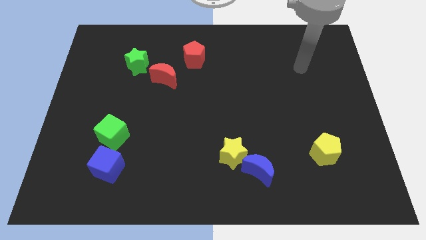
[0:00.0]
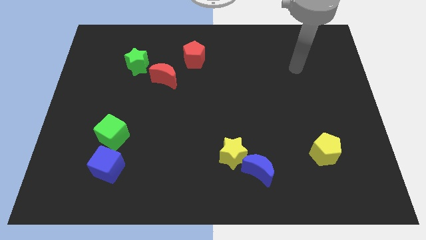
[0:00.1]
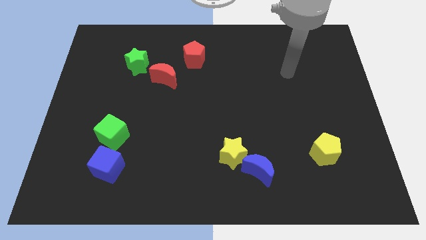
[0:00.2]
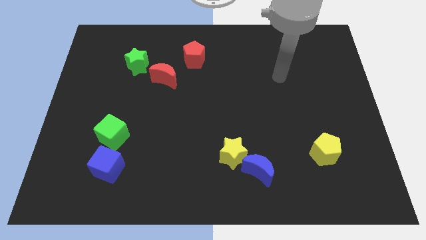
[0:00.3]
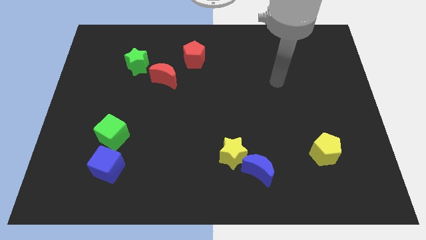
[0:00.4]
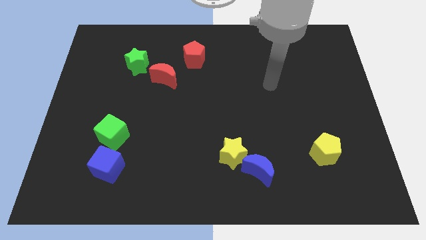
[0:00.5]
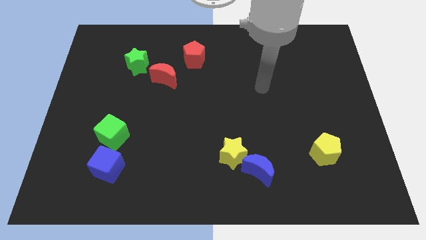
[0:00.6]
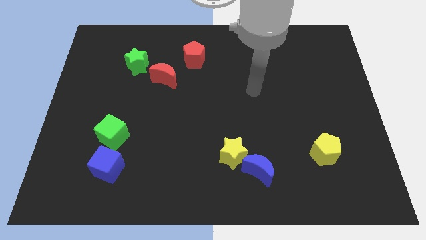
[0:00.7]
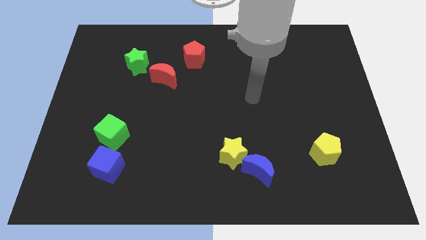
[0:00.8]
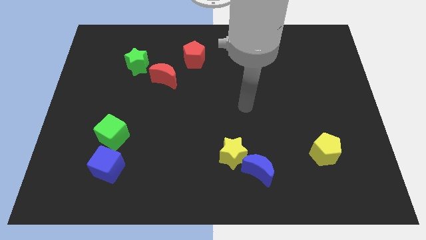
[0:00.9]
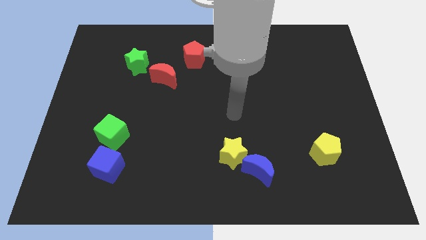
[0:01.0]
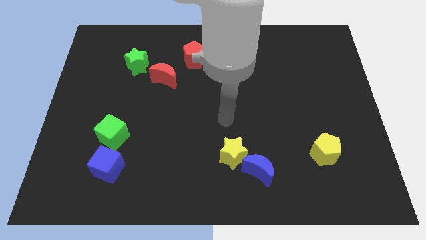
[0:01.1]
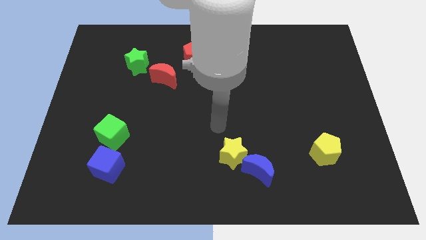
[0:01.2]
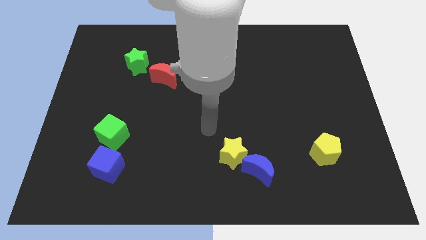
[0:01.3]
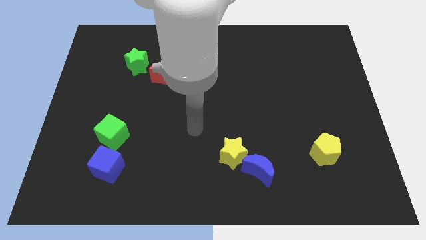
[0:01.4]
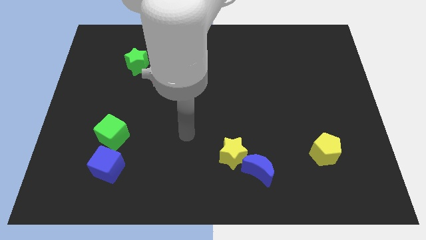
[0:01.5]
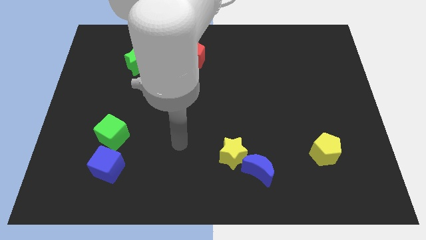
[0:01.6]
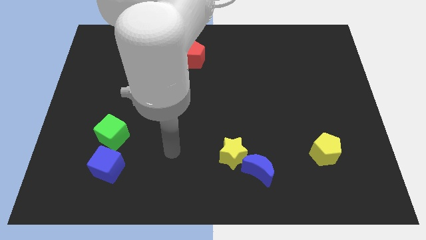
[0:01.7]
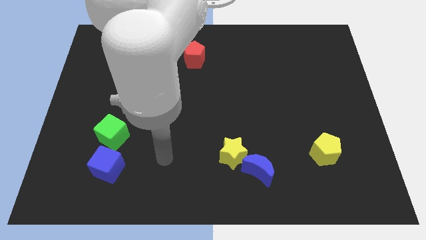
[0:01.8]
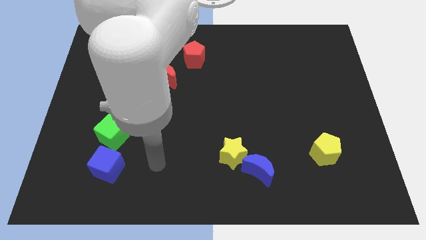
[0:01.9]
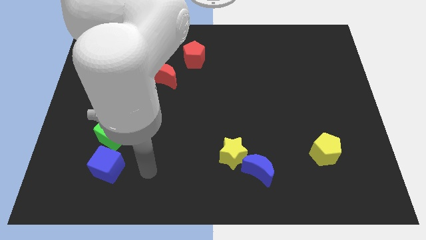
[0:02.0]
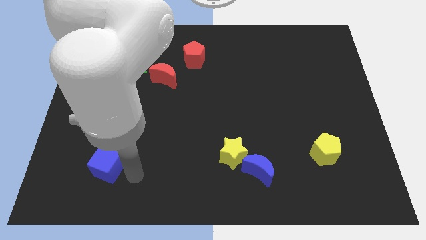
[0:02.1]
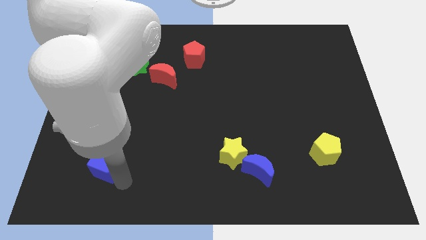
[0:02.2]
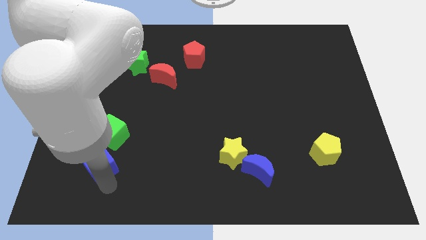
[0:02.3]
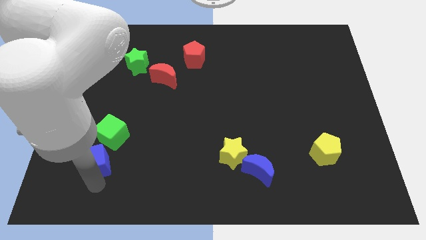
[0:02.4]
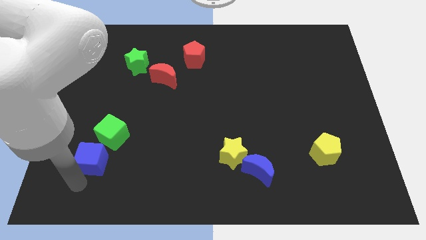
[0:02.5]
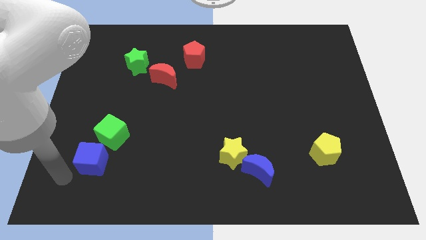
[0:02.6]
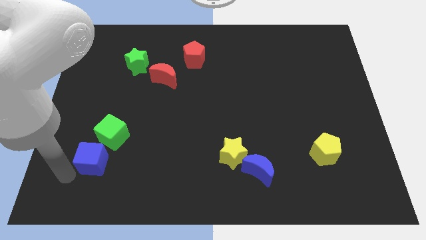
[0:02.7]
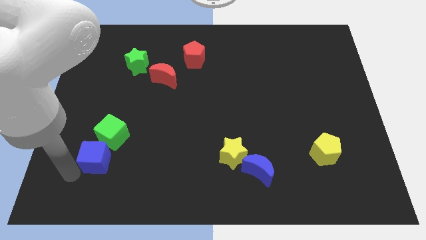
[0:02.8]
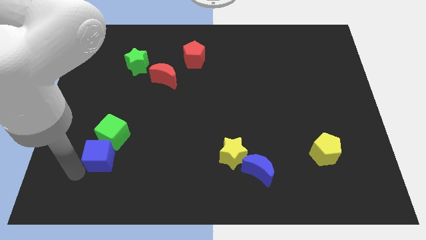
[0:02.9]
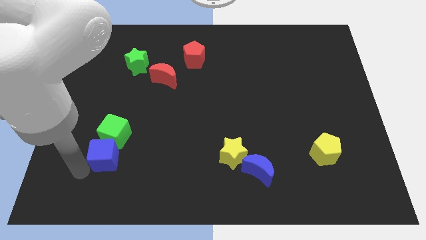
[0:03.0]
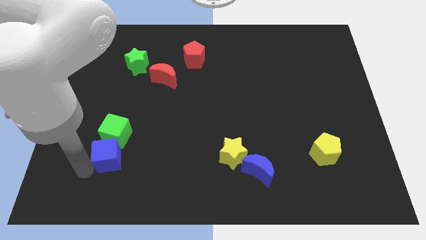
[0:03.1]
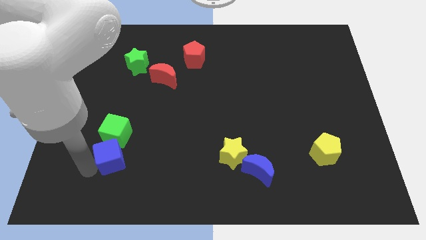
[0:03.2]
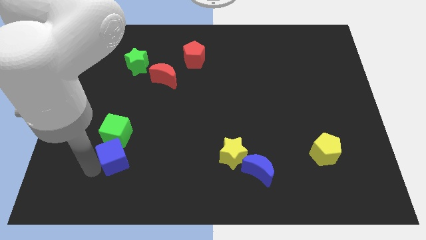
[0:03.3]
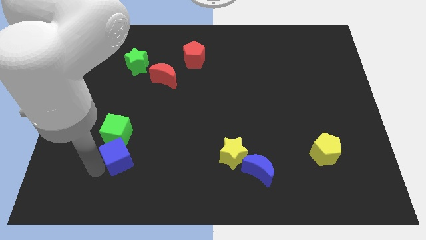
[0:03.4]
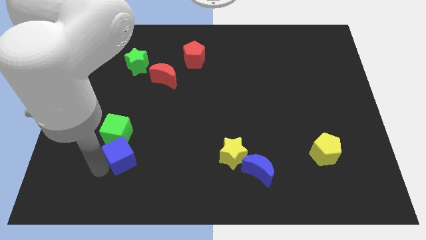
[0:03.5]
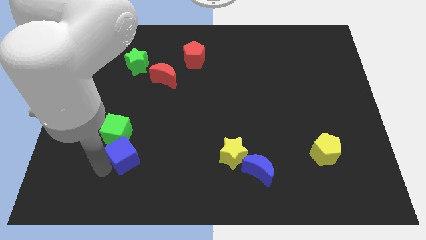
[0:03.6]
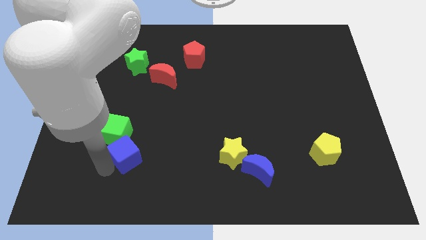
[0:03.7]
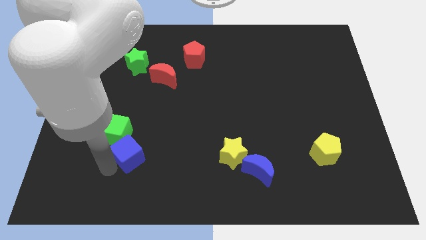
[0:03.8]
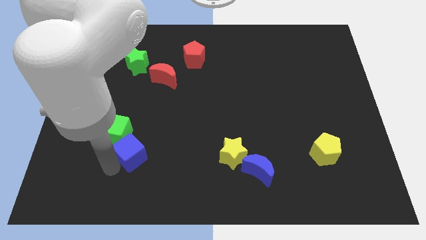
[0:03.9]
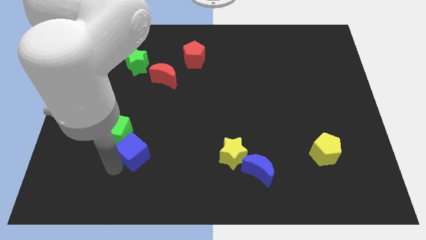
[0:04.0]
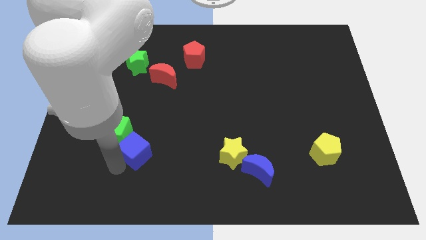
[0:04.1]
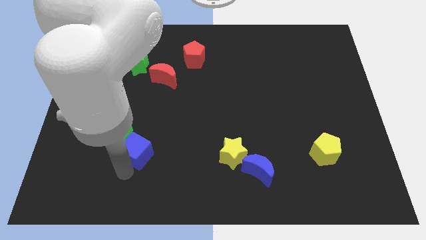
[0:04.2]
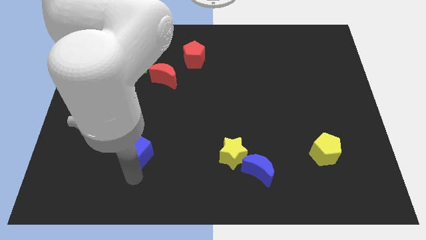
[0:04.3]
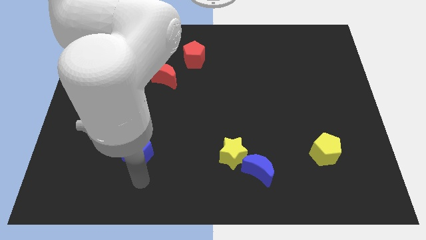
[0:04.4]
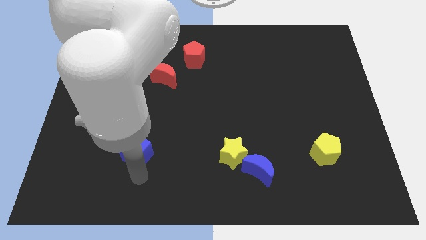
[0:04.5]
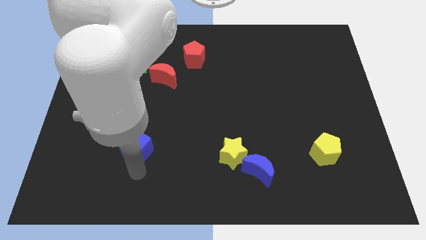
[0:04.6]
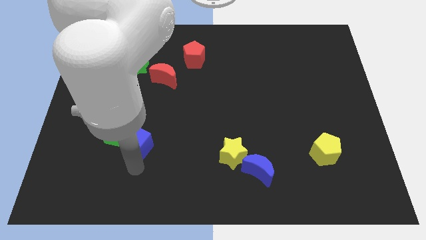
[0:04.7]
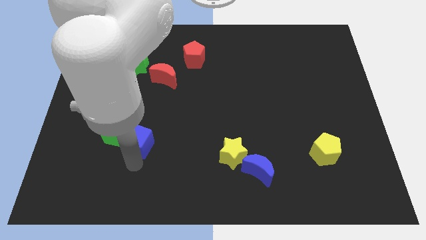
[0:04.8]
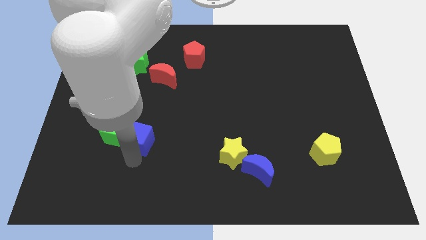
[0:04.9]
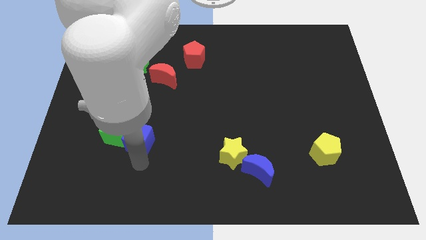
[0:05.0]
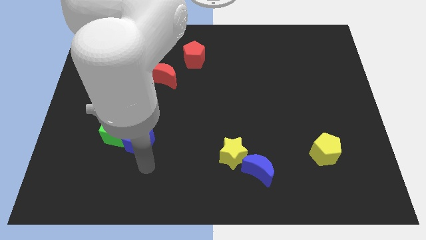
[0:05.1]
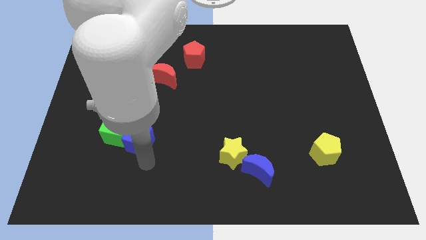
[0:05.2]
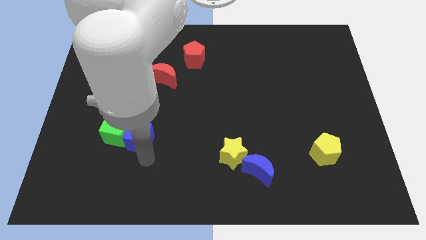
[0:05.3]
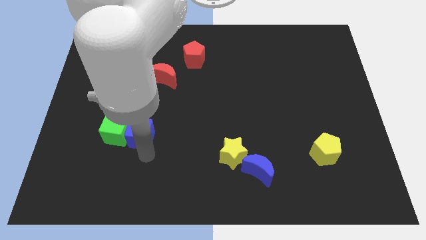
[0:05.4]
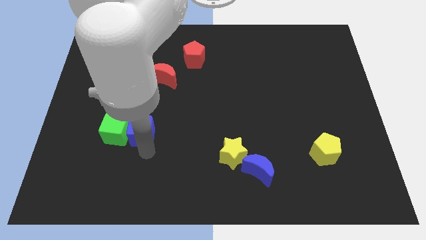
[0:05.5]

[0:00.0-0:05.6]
slightly move the blue cube up

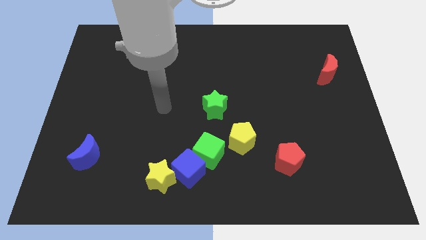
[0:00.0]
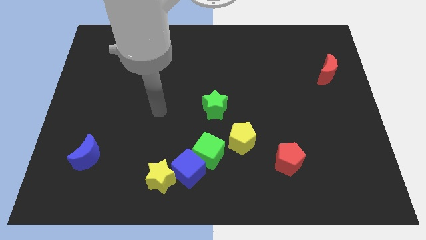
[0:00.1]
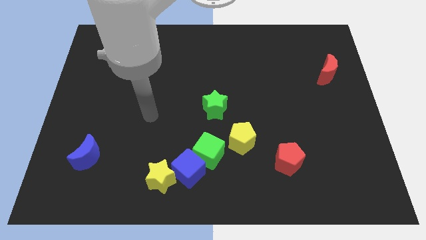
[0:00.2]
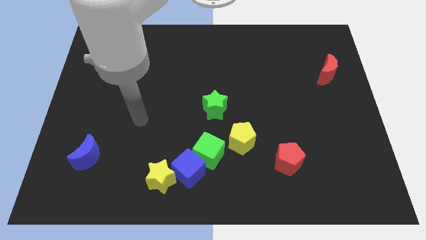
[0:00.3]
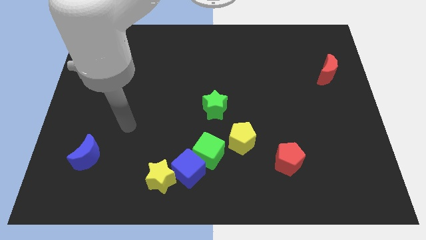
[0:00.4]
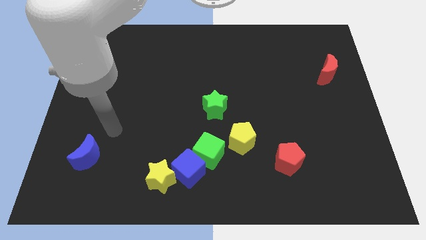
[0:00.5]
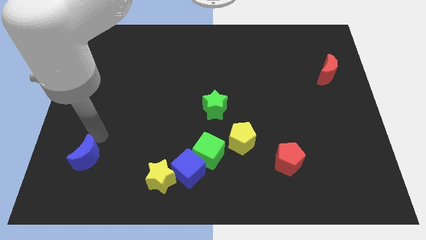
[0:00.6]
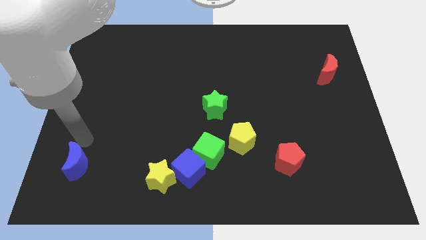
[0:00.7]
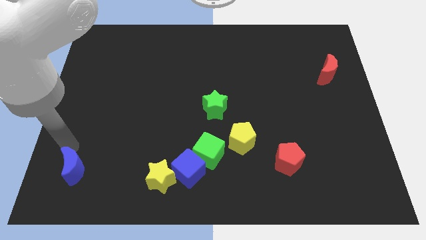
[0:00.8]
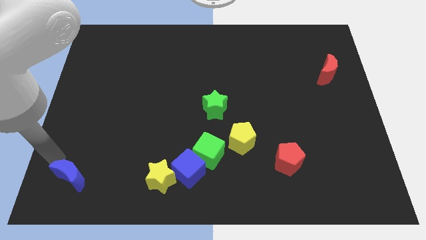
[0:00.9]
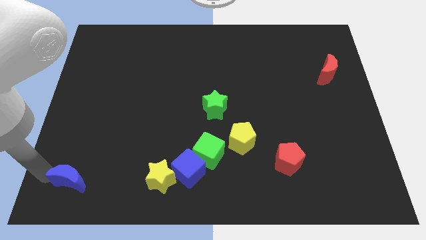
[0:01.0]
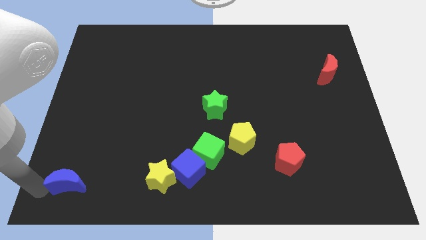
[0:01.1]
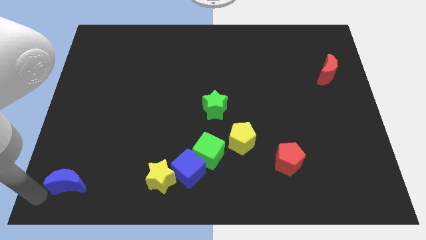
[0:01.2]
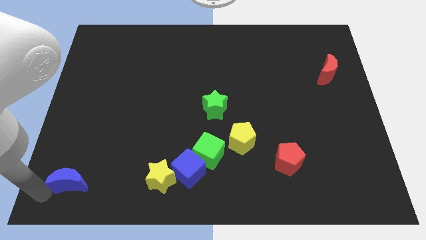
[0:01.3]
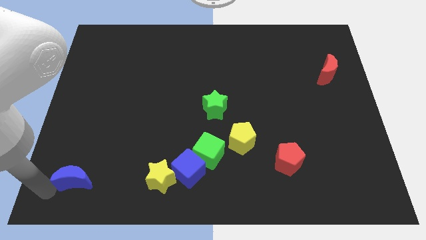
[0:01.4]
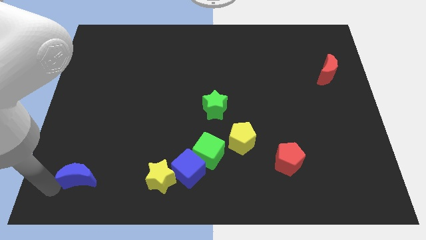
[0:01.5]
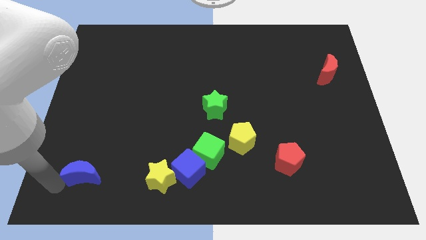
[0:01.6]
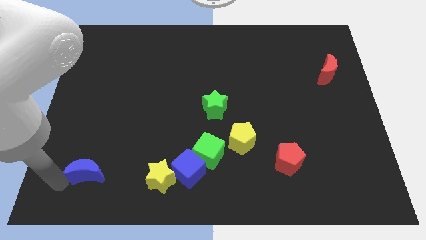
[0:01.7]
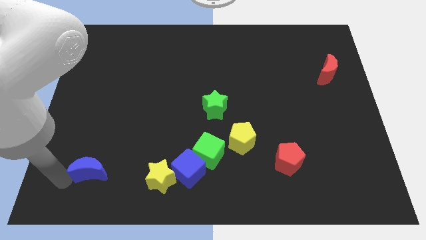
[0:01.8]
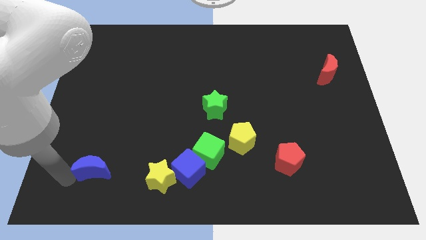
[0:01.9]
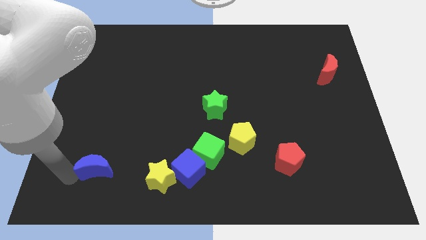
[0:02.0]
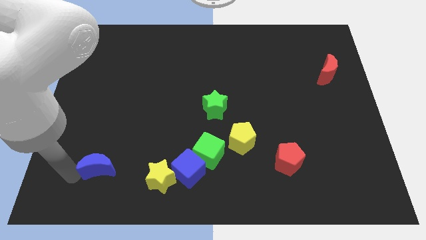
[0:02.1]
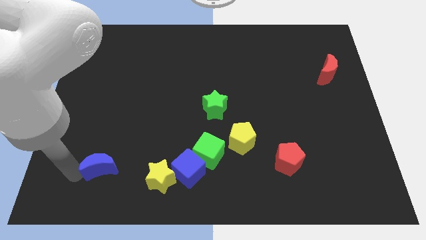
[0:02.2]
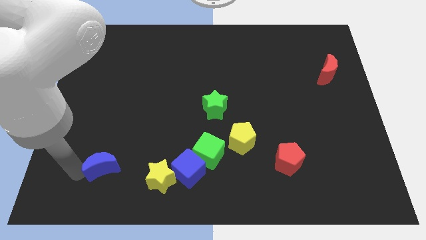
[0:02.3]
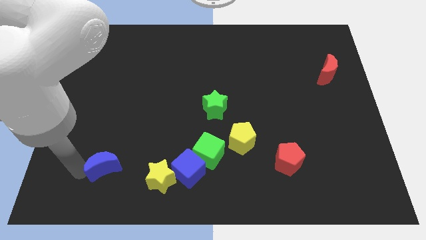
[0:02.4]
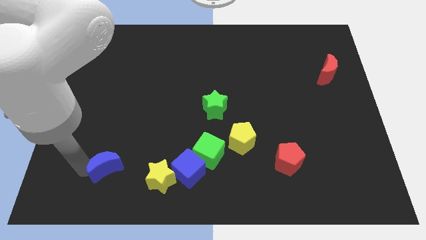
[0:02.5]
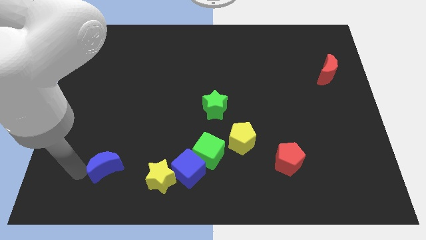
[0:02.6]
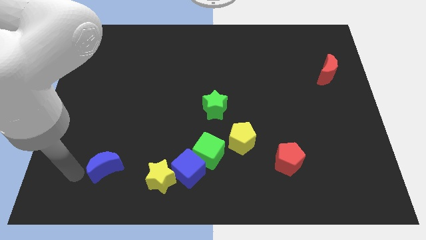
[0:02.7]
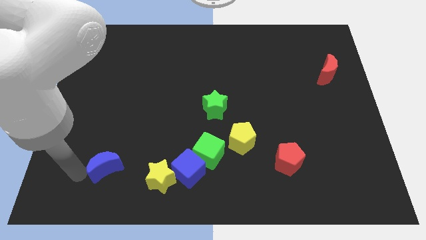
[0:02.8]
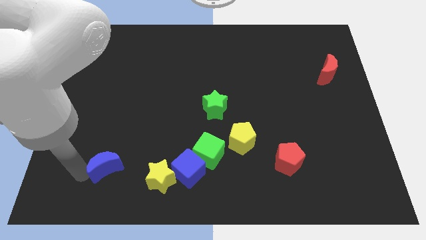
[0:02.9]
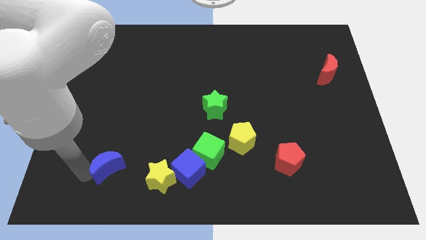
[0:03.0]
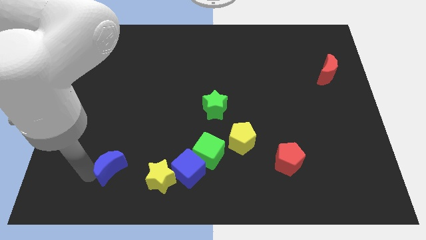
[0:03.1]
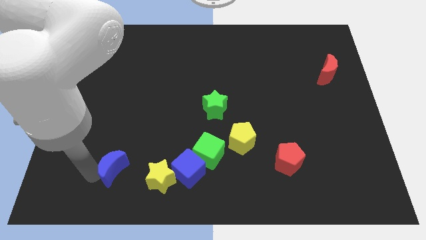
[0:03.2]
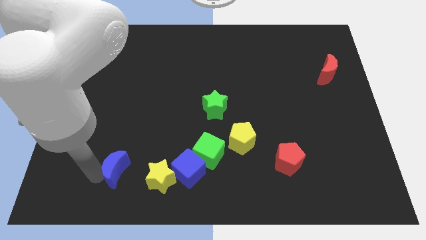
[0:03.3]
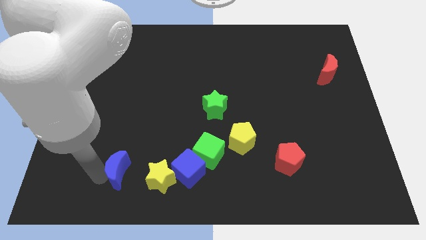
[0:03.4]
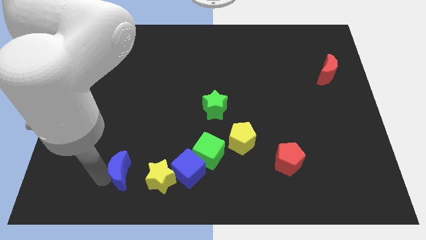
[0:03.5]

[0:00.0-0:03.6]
move the blue moon right somewhat
